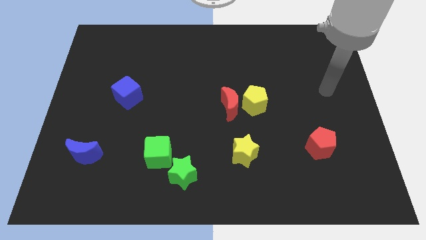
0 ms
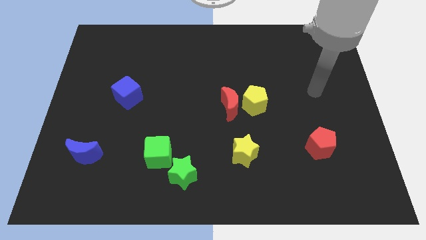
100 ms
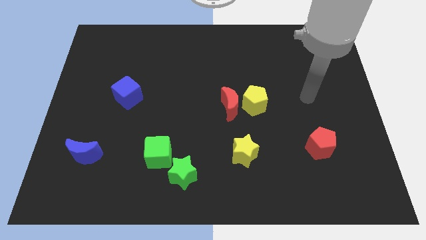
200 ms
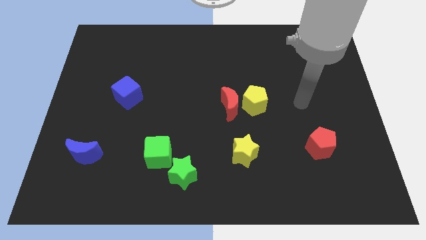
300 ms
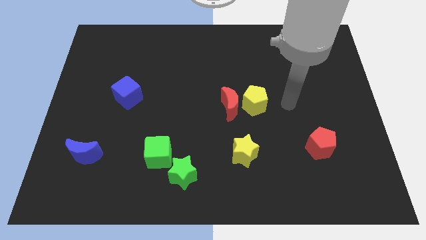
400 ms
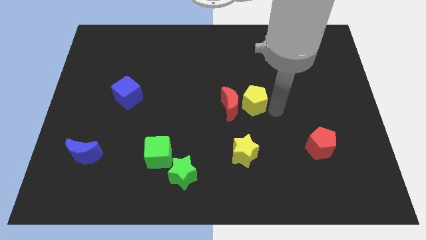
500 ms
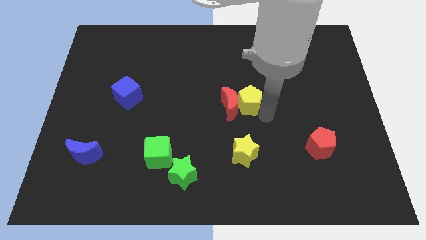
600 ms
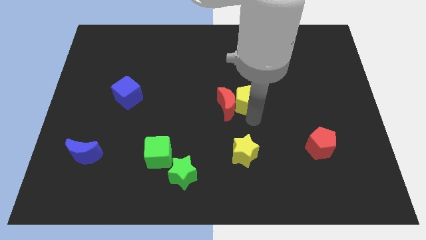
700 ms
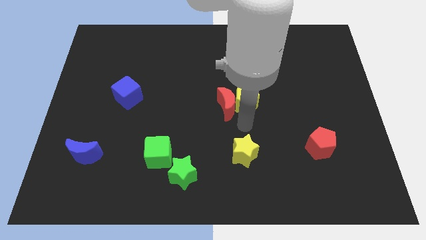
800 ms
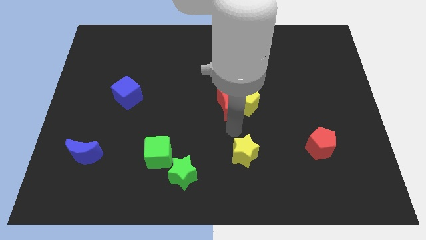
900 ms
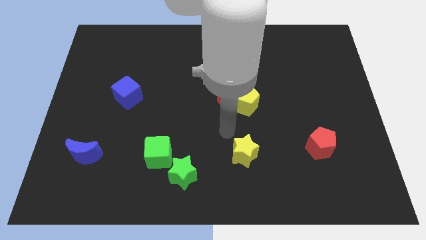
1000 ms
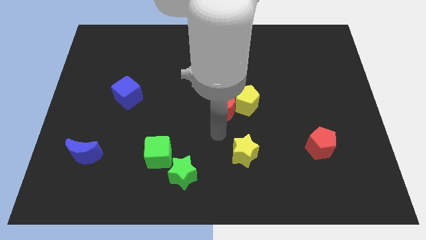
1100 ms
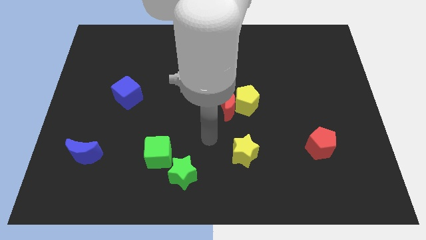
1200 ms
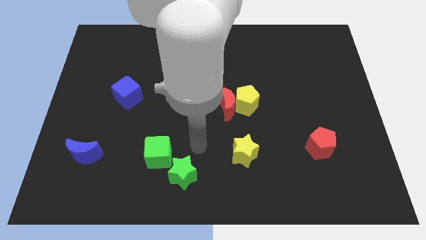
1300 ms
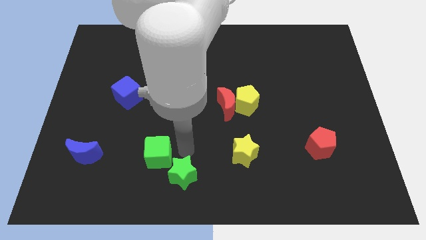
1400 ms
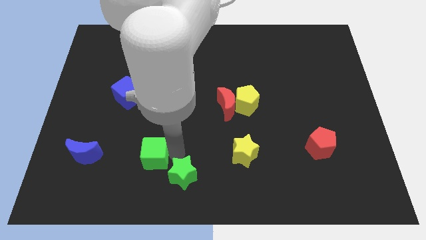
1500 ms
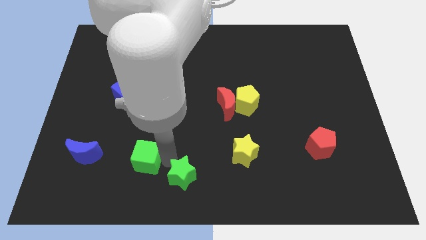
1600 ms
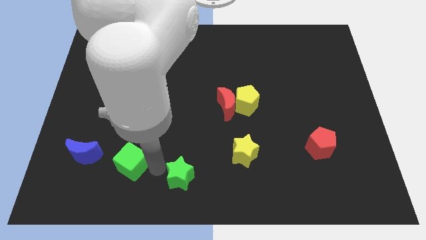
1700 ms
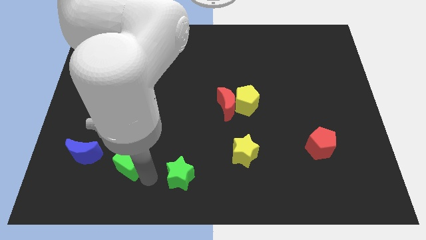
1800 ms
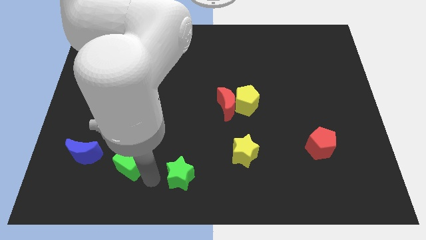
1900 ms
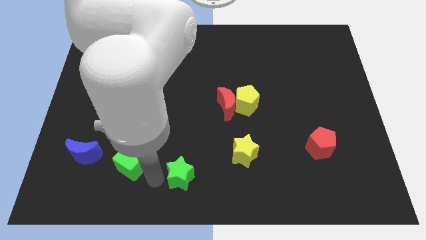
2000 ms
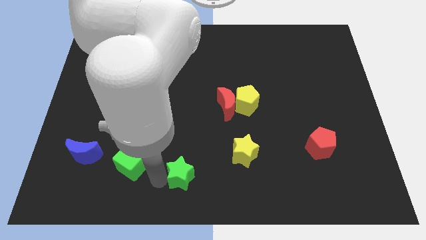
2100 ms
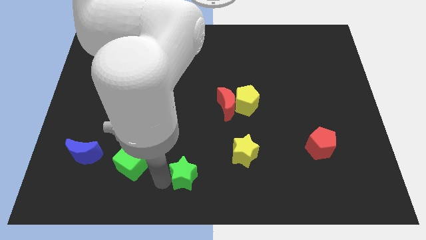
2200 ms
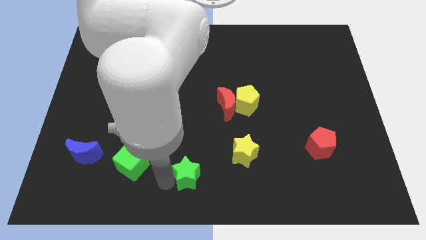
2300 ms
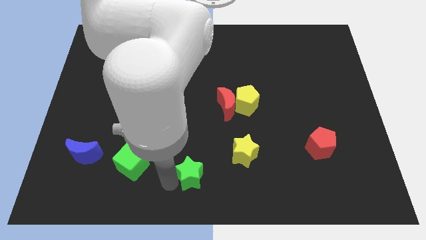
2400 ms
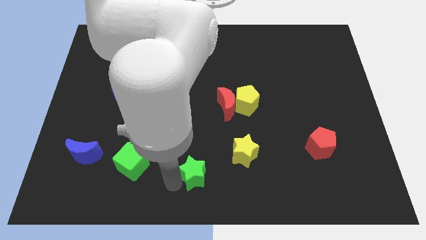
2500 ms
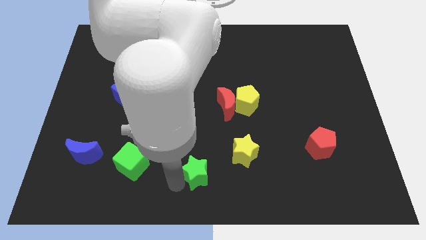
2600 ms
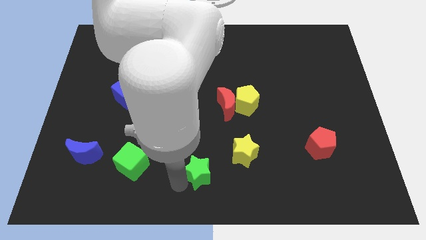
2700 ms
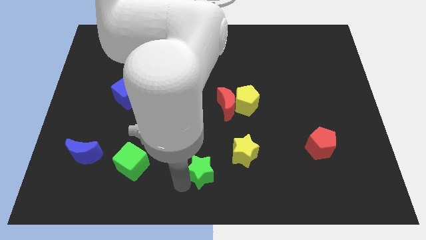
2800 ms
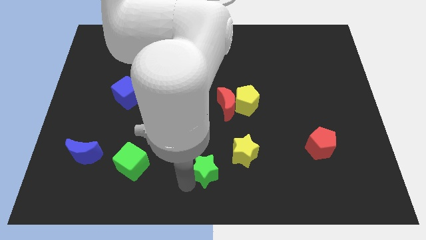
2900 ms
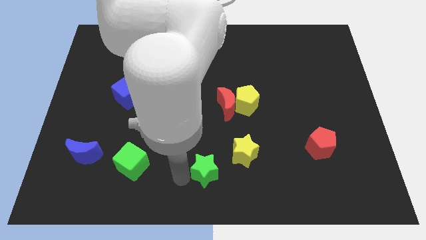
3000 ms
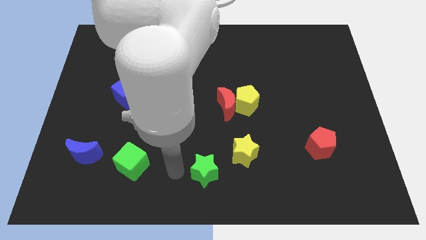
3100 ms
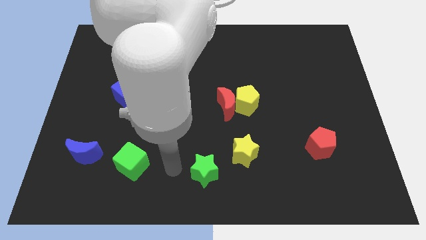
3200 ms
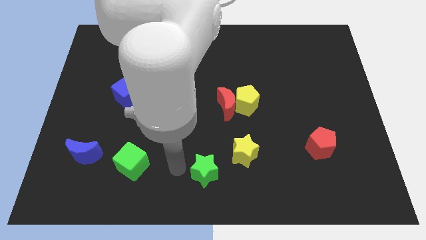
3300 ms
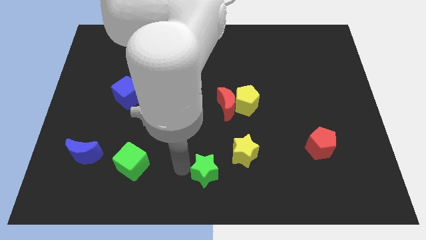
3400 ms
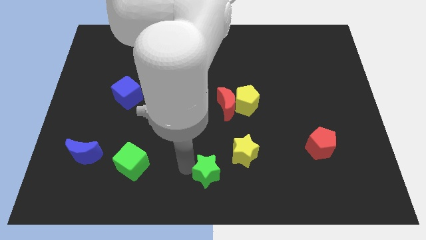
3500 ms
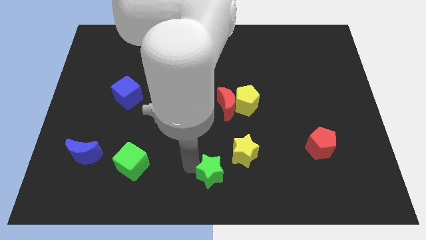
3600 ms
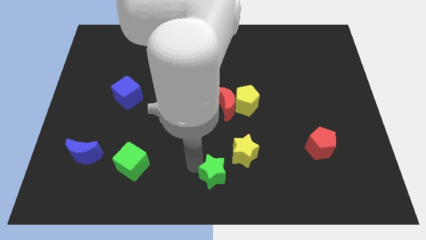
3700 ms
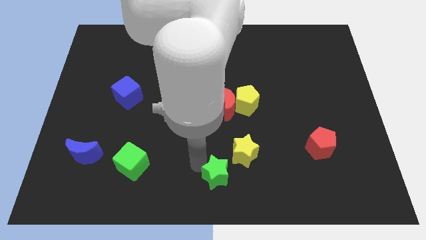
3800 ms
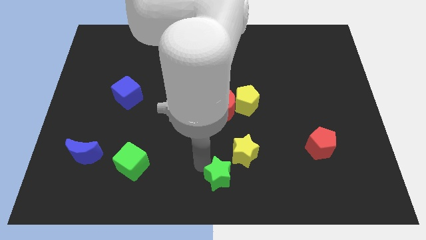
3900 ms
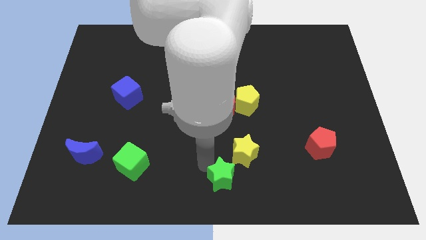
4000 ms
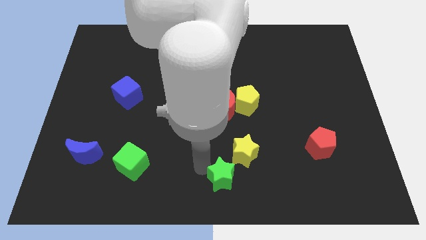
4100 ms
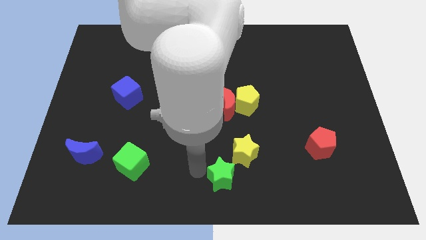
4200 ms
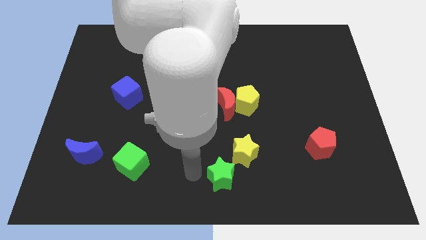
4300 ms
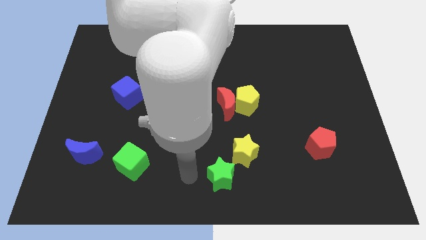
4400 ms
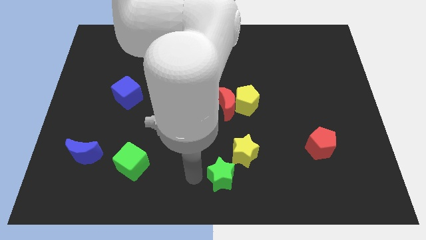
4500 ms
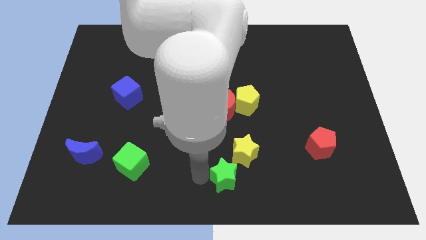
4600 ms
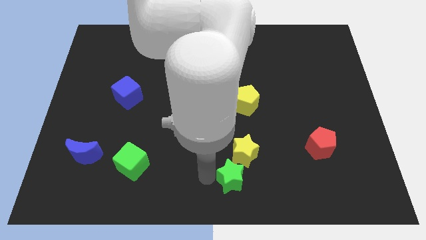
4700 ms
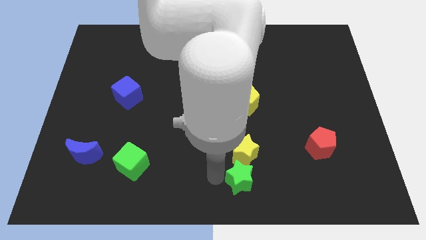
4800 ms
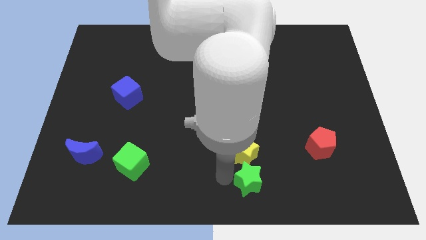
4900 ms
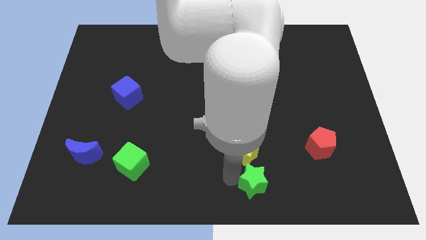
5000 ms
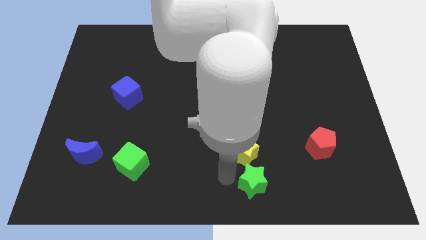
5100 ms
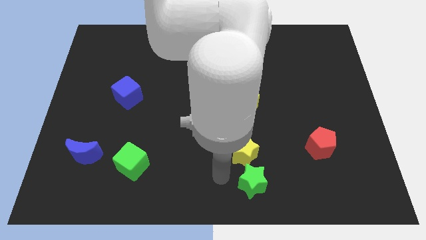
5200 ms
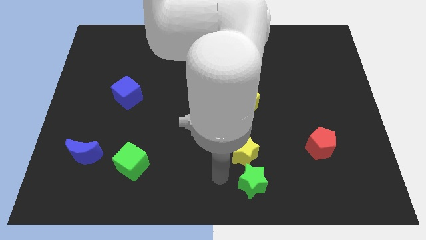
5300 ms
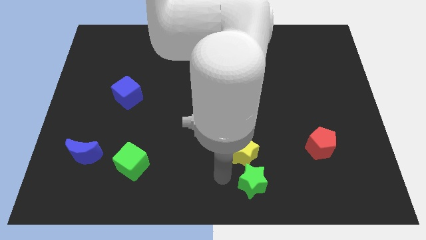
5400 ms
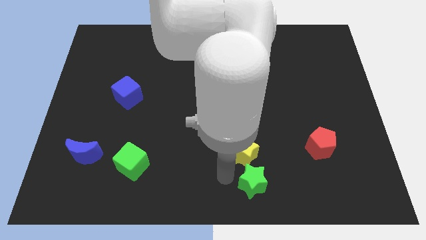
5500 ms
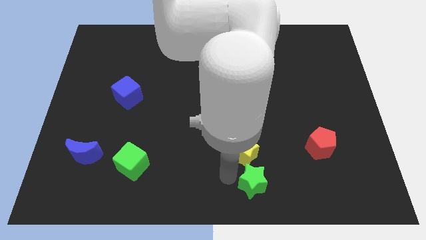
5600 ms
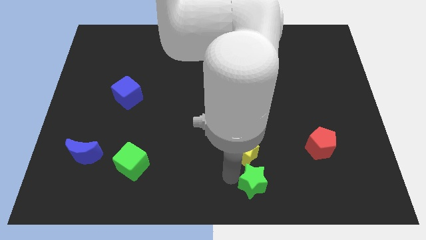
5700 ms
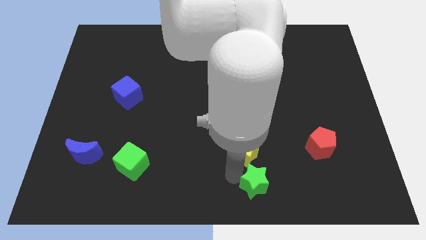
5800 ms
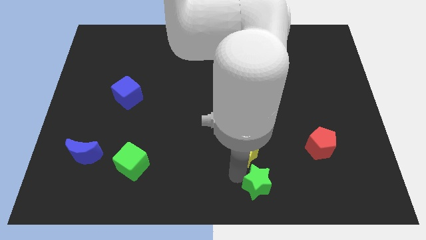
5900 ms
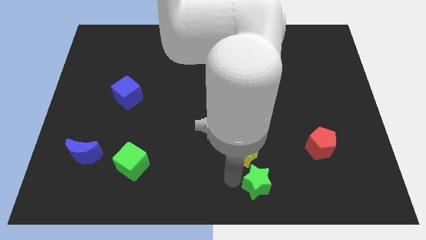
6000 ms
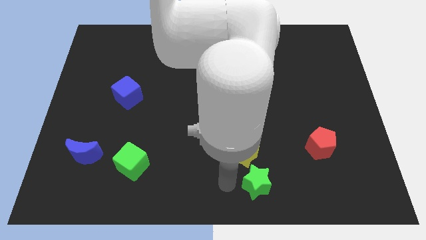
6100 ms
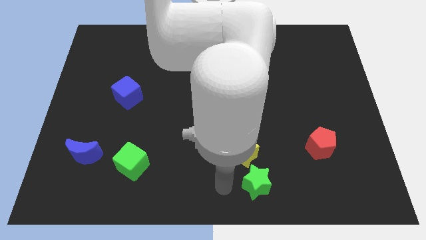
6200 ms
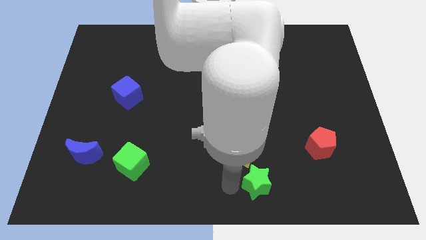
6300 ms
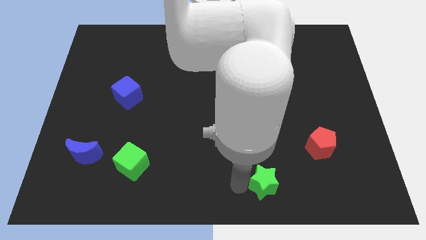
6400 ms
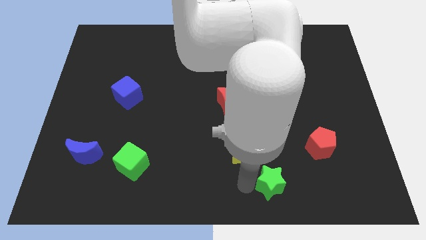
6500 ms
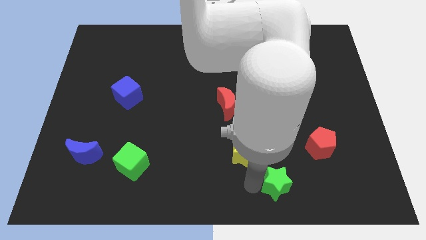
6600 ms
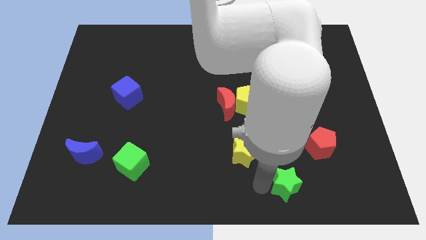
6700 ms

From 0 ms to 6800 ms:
push the green star right

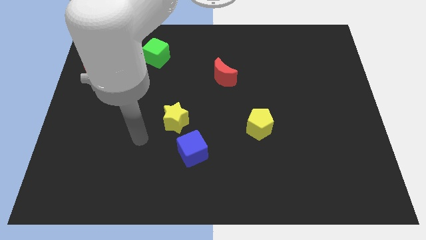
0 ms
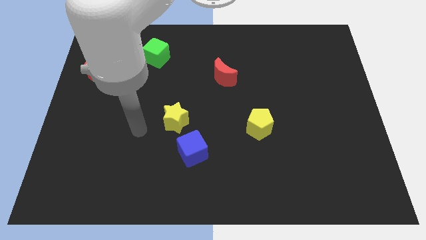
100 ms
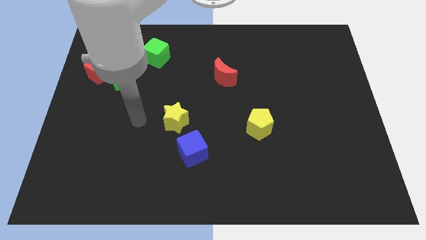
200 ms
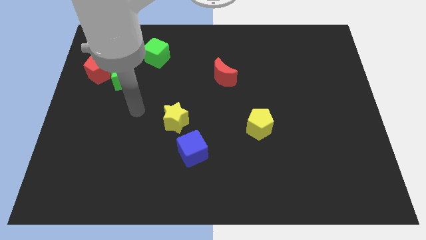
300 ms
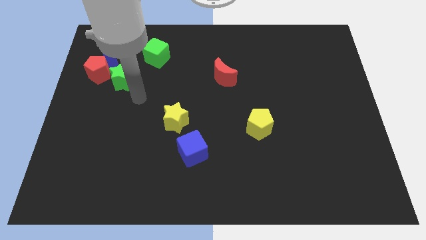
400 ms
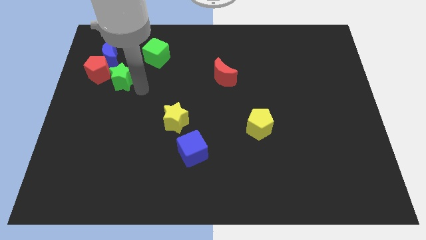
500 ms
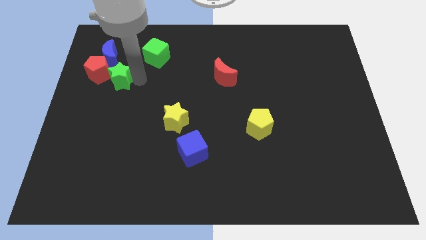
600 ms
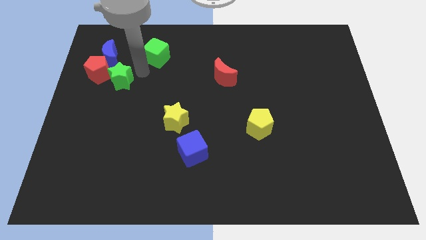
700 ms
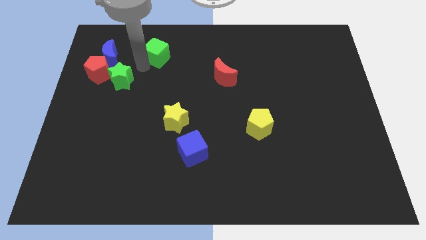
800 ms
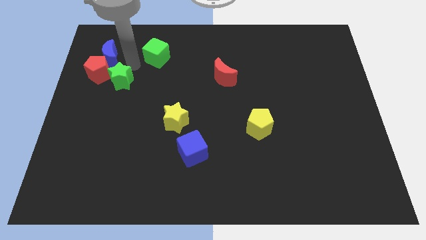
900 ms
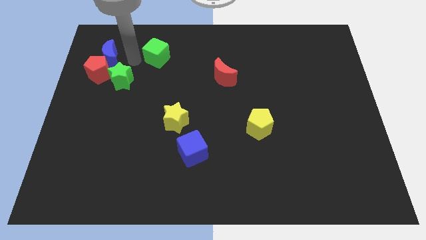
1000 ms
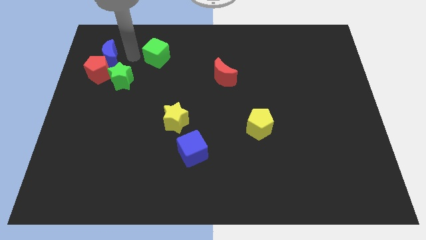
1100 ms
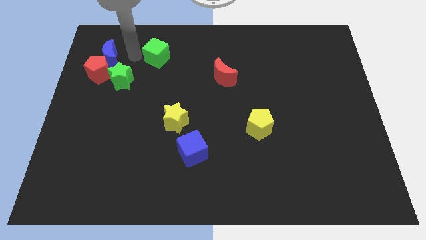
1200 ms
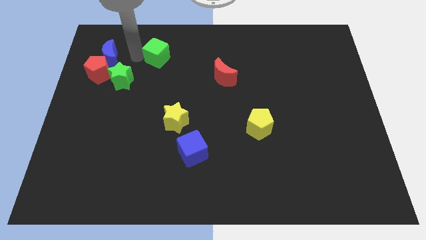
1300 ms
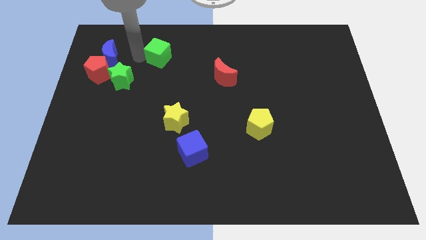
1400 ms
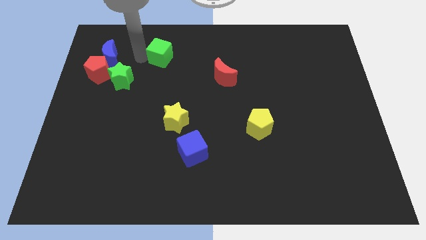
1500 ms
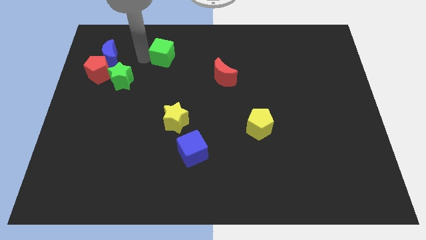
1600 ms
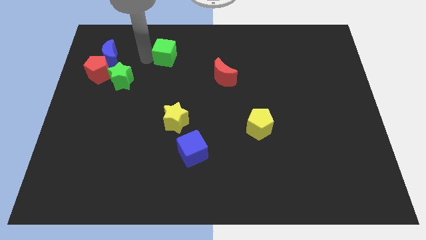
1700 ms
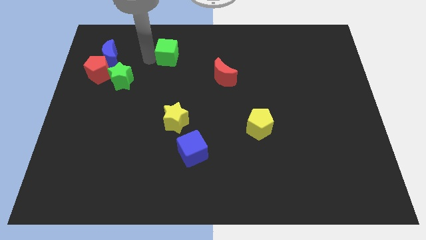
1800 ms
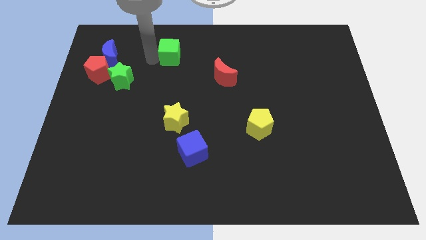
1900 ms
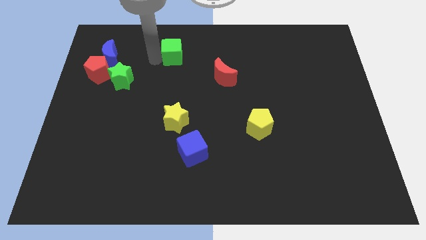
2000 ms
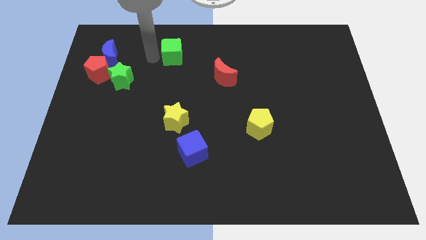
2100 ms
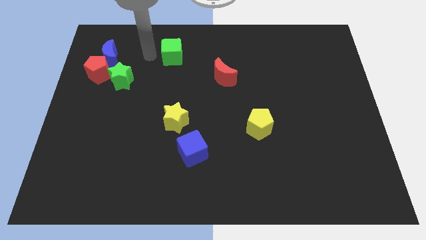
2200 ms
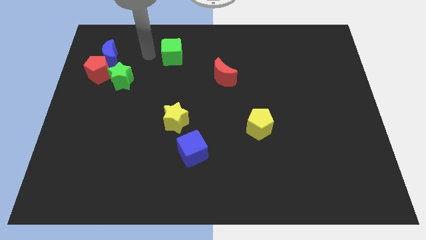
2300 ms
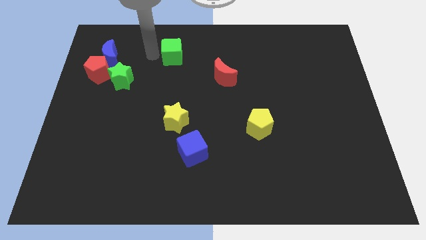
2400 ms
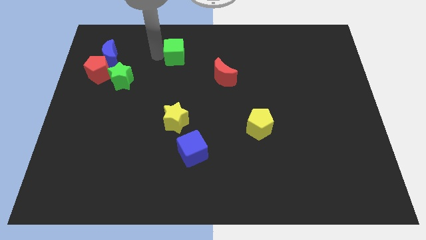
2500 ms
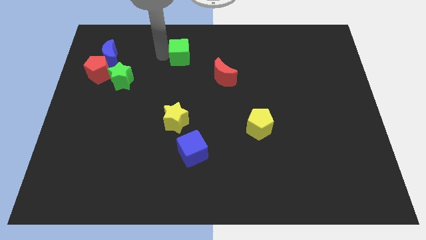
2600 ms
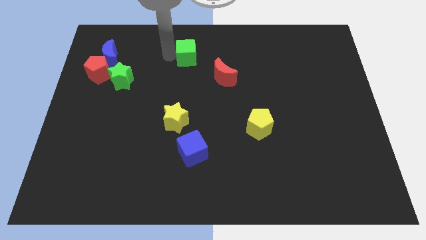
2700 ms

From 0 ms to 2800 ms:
slightly slide the green cube right
